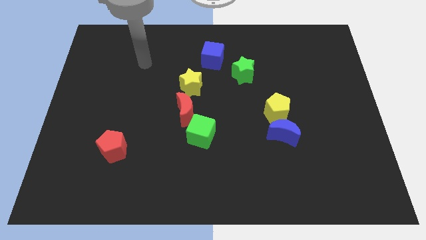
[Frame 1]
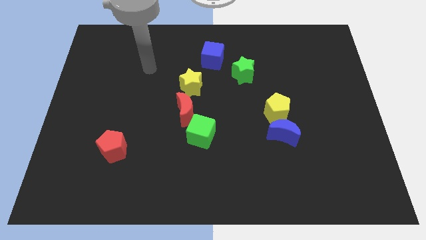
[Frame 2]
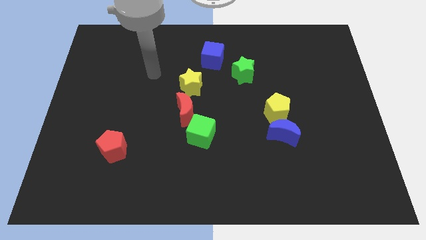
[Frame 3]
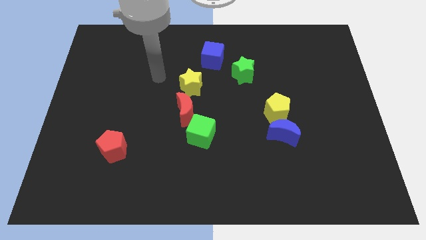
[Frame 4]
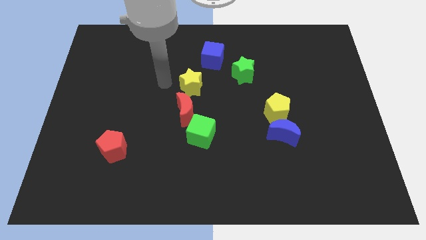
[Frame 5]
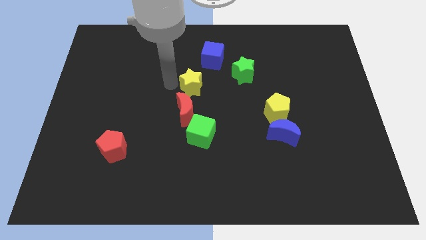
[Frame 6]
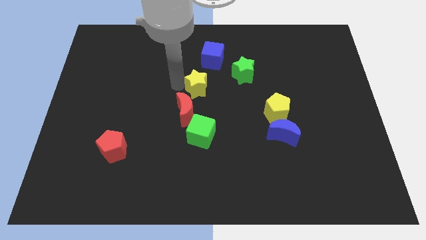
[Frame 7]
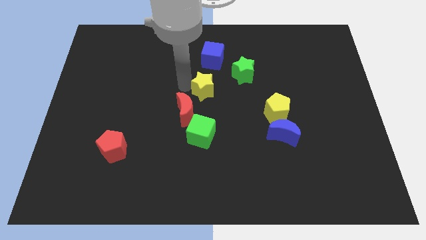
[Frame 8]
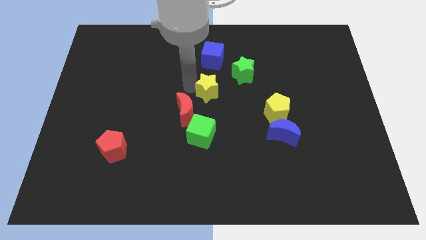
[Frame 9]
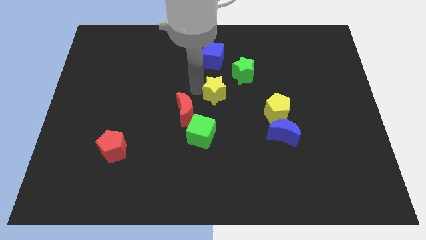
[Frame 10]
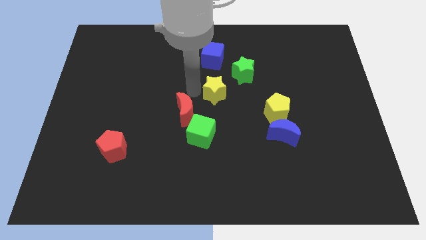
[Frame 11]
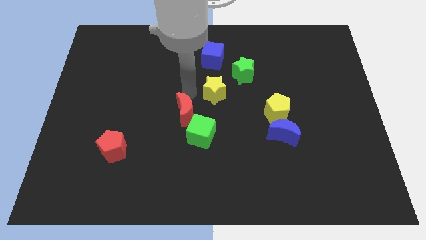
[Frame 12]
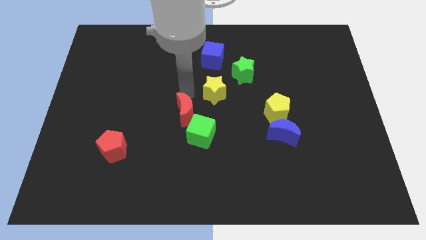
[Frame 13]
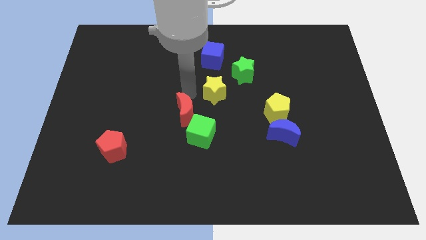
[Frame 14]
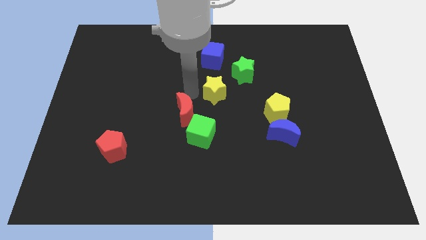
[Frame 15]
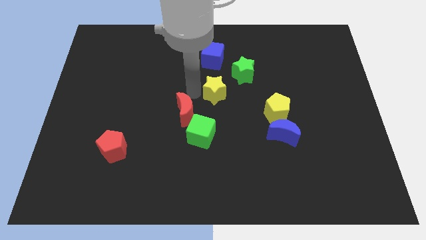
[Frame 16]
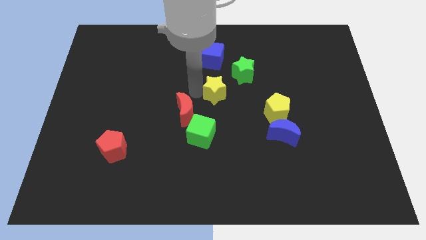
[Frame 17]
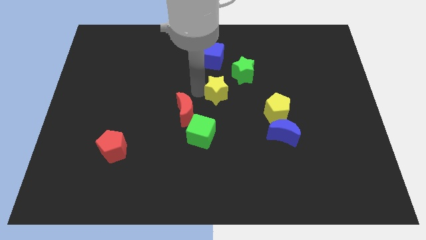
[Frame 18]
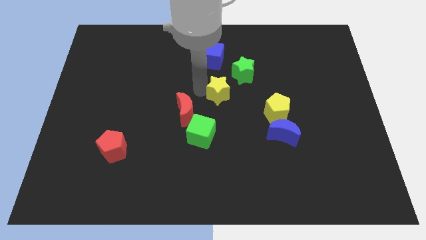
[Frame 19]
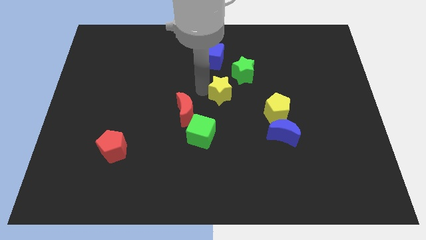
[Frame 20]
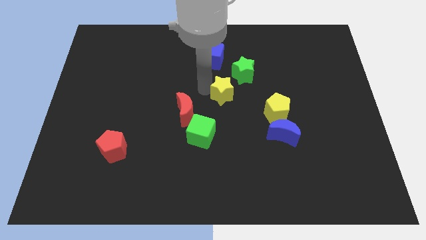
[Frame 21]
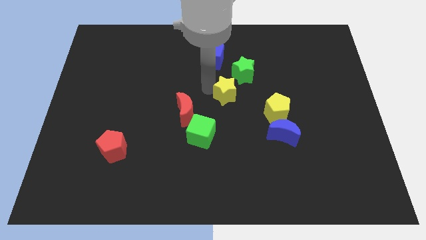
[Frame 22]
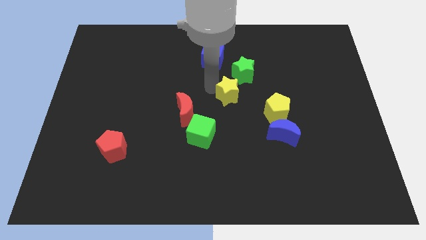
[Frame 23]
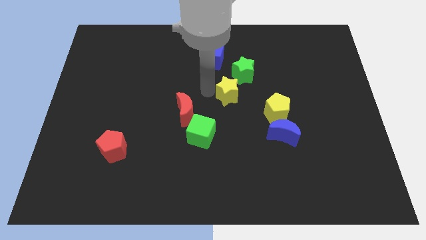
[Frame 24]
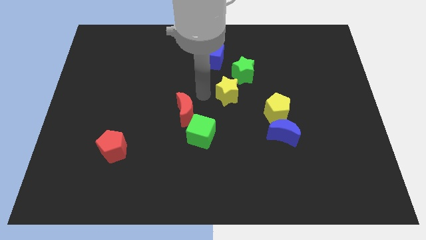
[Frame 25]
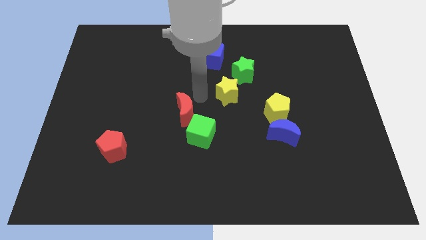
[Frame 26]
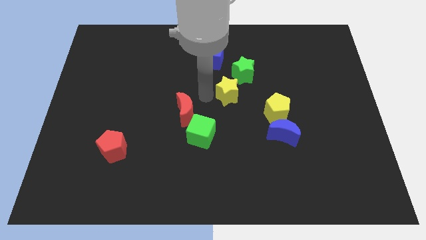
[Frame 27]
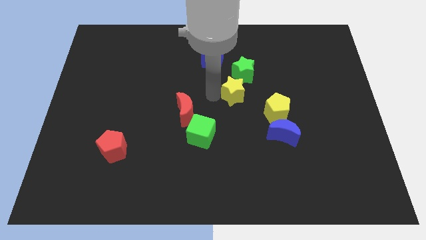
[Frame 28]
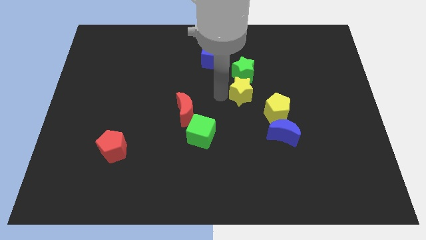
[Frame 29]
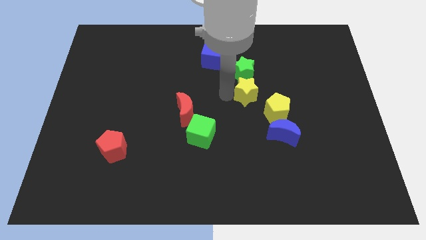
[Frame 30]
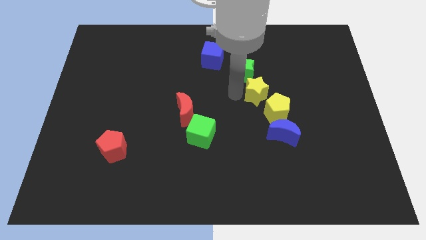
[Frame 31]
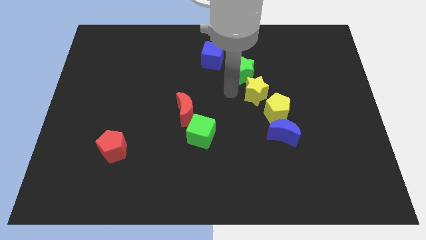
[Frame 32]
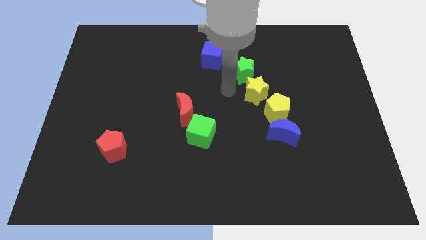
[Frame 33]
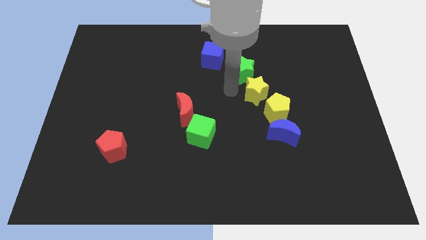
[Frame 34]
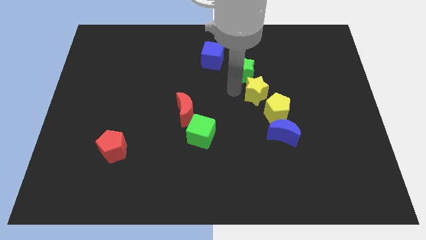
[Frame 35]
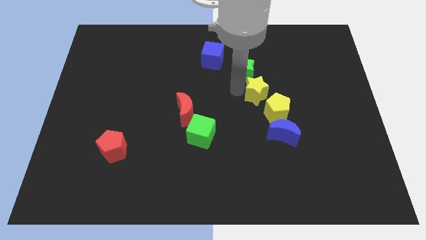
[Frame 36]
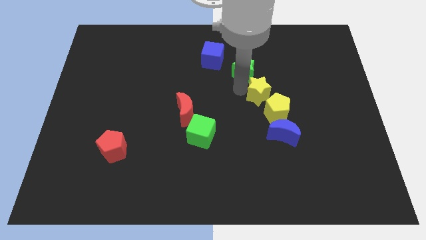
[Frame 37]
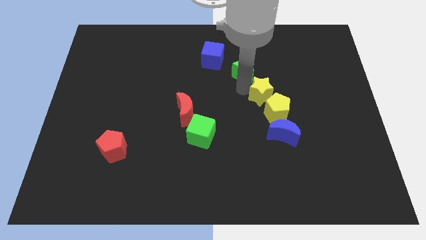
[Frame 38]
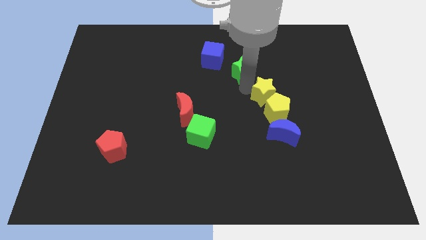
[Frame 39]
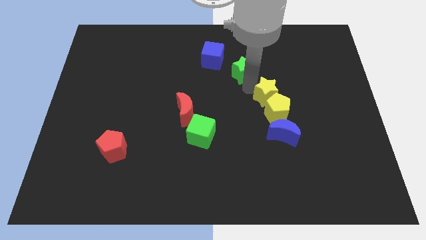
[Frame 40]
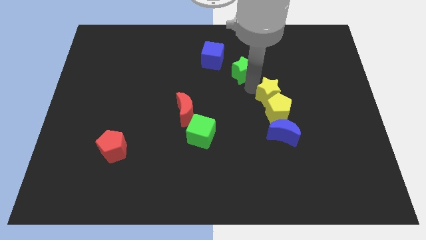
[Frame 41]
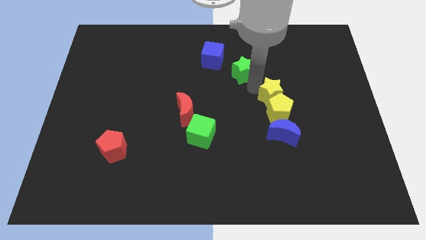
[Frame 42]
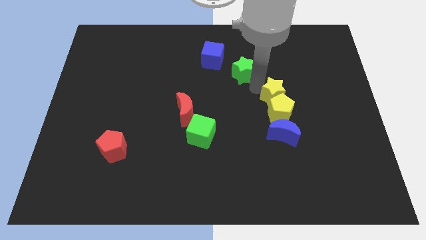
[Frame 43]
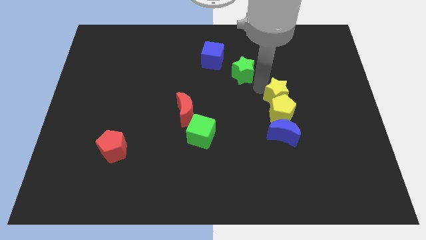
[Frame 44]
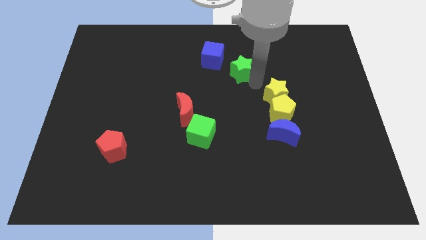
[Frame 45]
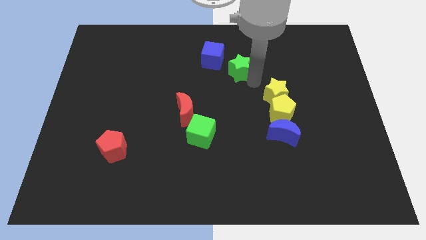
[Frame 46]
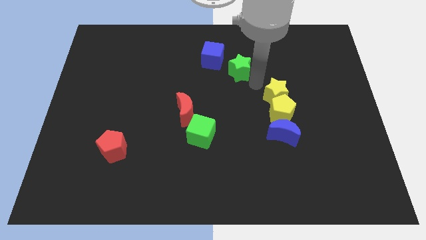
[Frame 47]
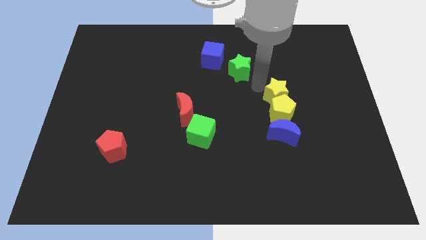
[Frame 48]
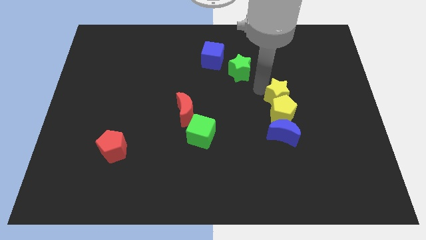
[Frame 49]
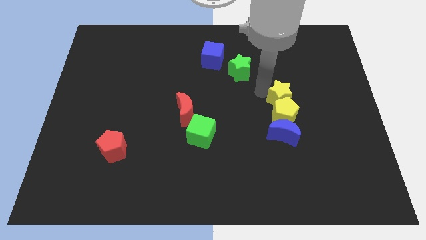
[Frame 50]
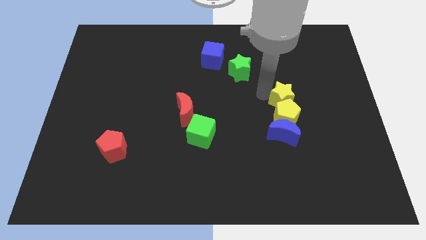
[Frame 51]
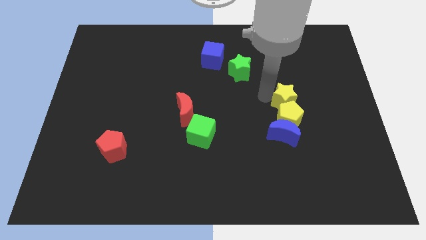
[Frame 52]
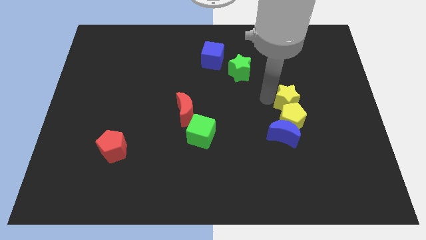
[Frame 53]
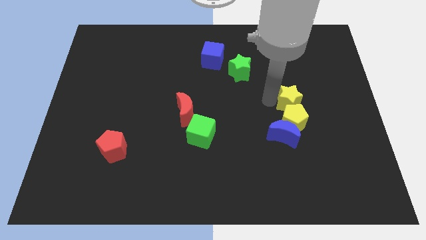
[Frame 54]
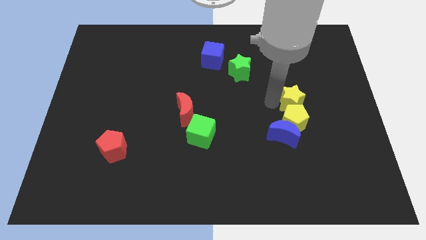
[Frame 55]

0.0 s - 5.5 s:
push the yellow star to the top right of the blue moon

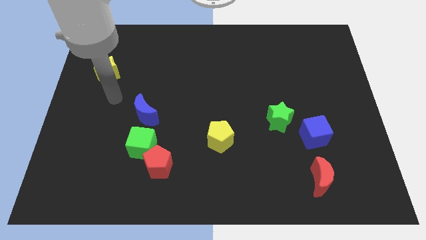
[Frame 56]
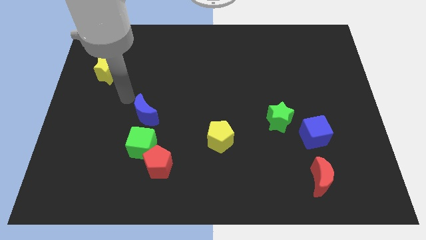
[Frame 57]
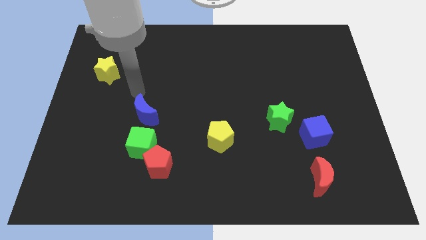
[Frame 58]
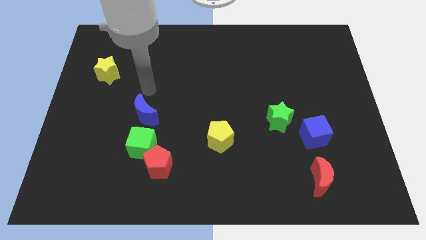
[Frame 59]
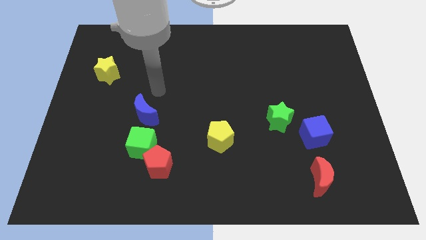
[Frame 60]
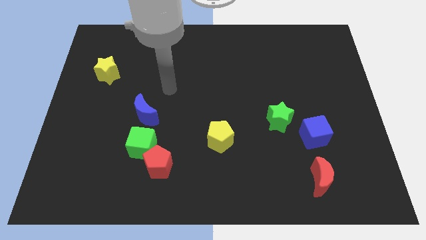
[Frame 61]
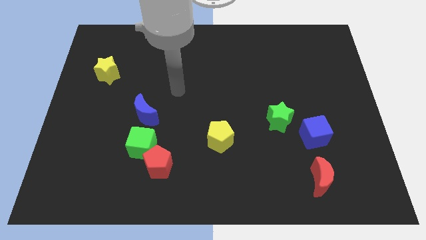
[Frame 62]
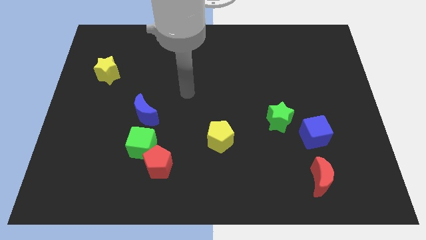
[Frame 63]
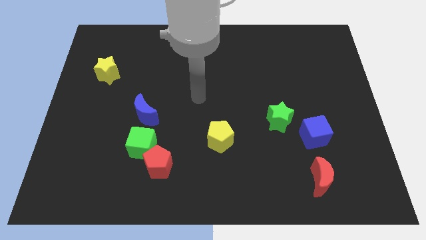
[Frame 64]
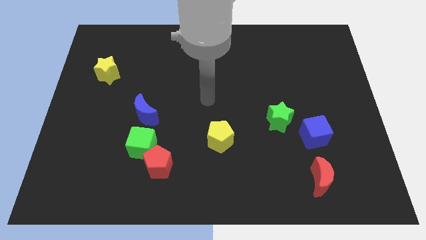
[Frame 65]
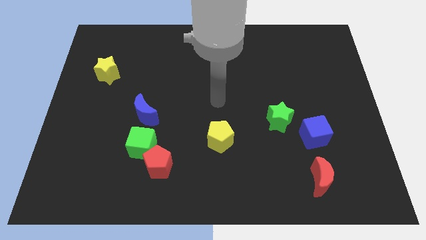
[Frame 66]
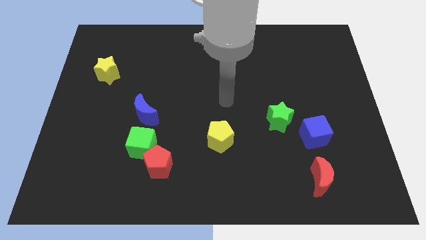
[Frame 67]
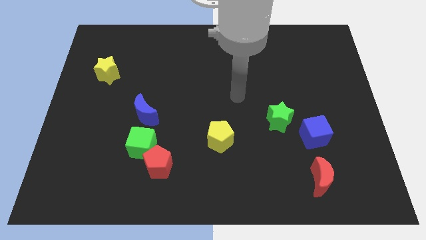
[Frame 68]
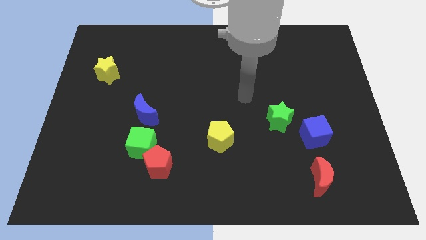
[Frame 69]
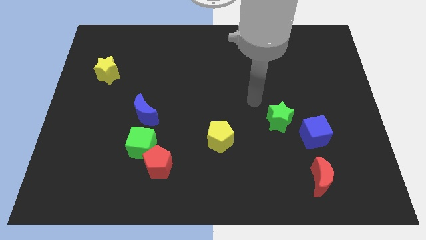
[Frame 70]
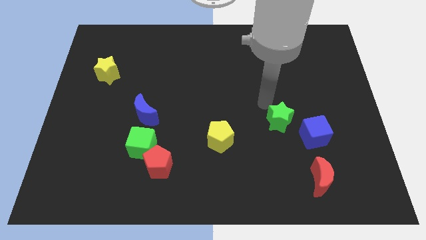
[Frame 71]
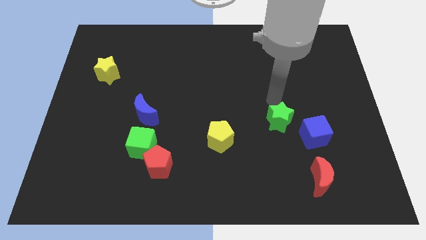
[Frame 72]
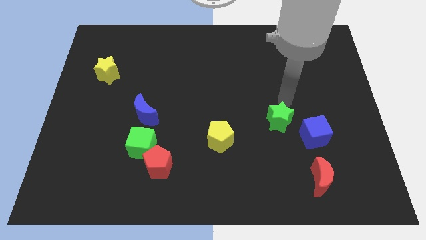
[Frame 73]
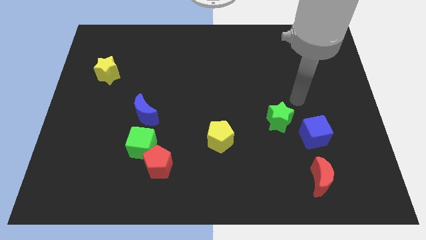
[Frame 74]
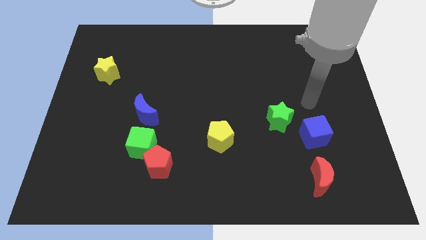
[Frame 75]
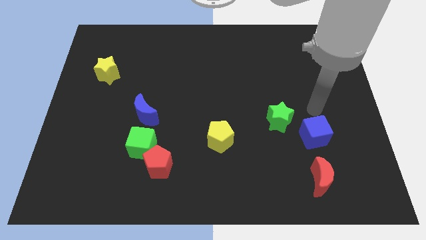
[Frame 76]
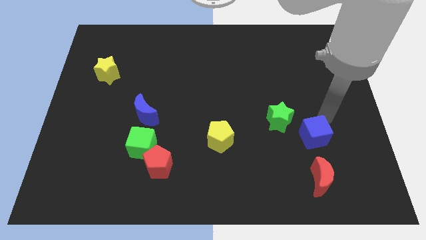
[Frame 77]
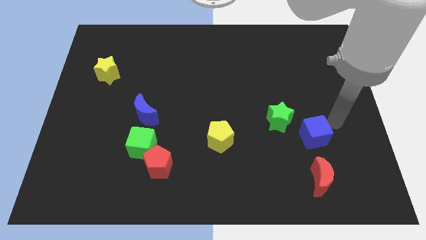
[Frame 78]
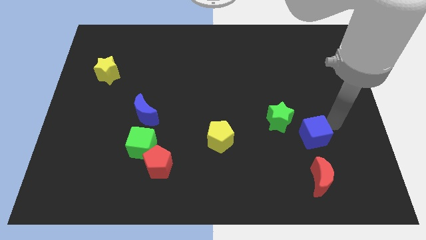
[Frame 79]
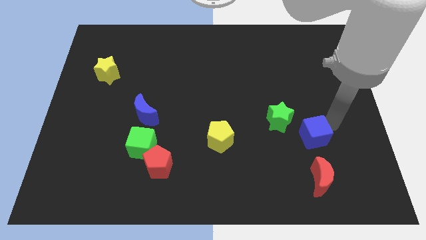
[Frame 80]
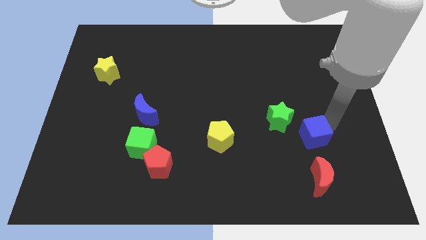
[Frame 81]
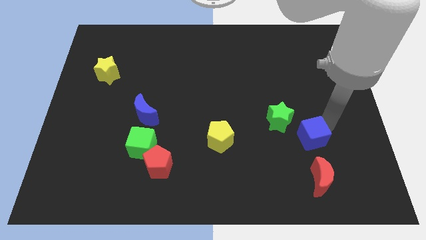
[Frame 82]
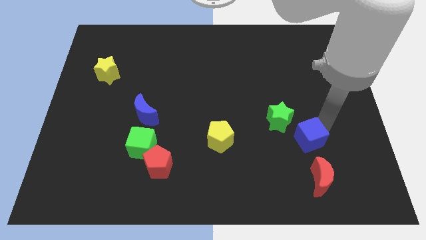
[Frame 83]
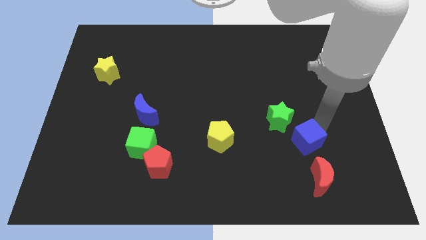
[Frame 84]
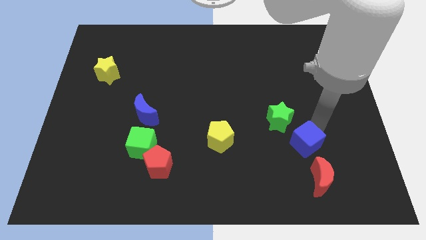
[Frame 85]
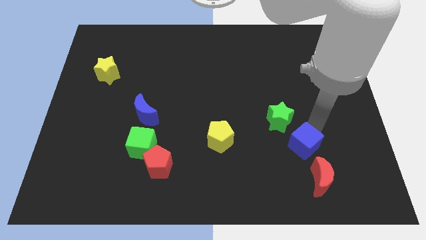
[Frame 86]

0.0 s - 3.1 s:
move the blue cube to the bottom side of the green star
